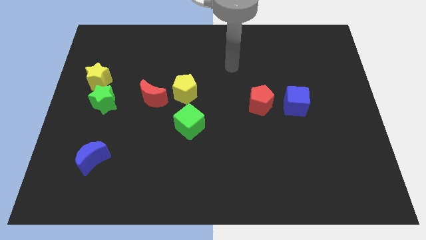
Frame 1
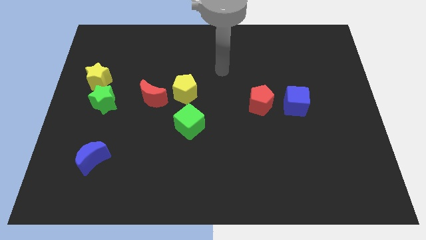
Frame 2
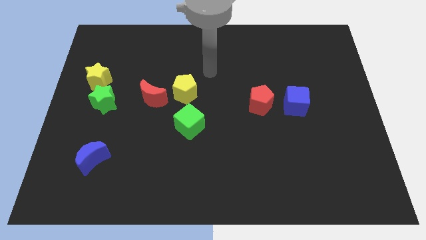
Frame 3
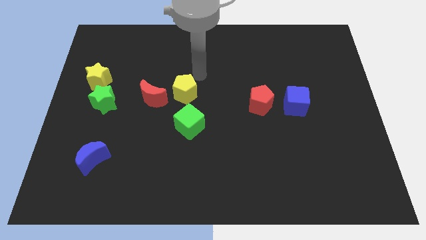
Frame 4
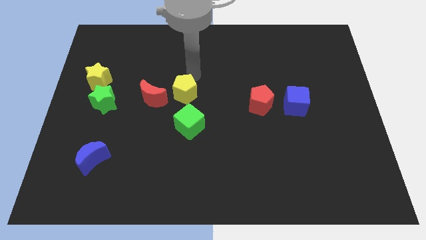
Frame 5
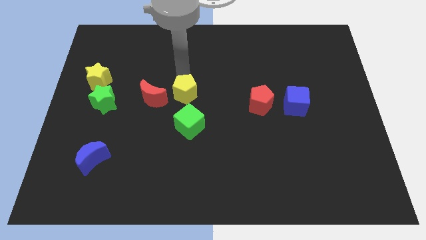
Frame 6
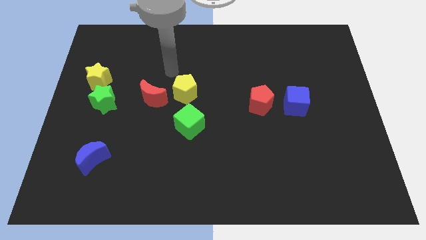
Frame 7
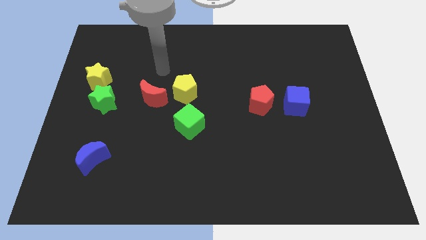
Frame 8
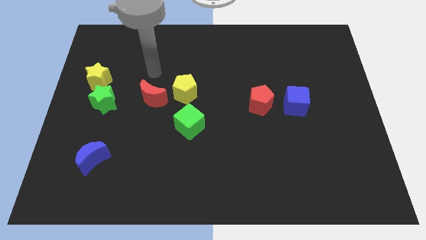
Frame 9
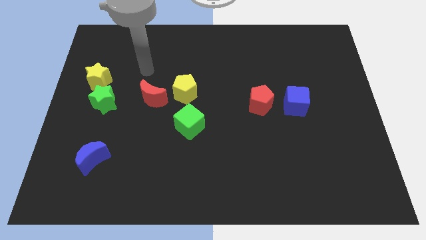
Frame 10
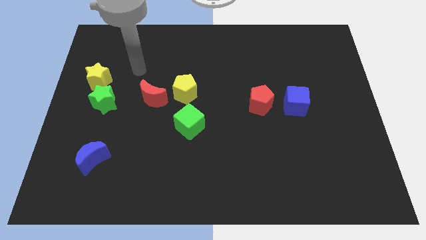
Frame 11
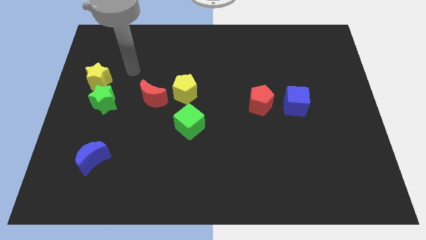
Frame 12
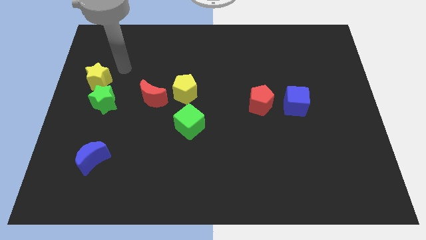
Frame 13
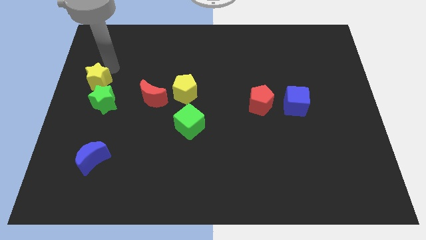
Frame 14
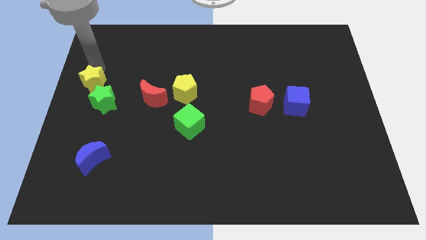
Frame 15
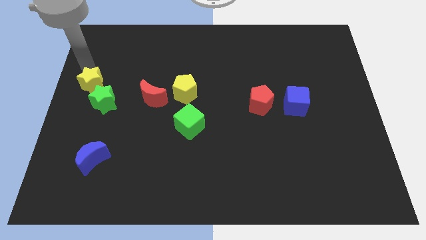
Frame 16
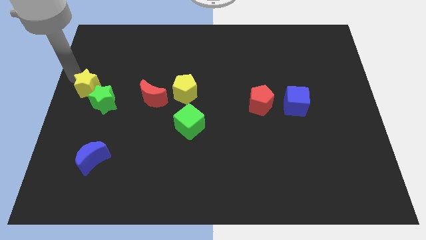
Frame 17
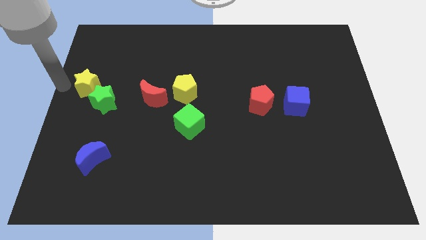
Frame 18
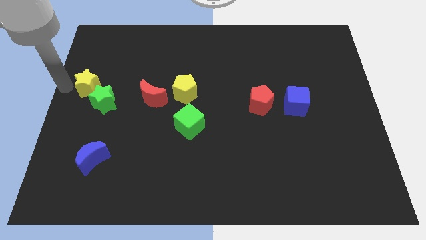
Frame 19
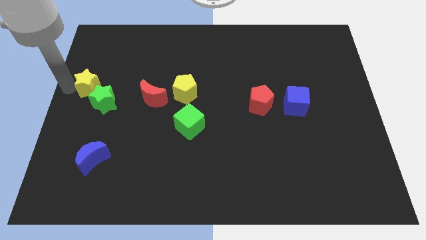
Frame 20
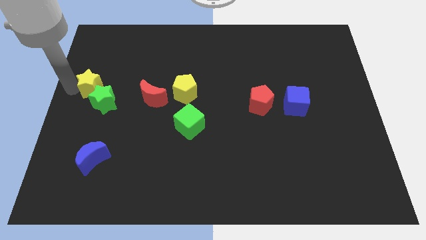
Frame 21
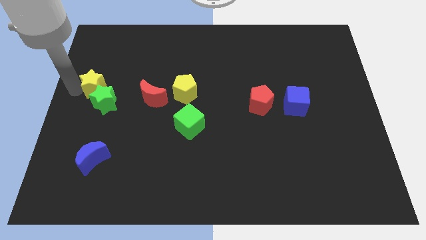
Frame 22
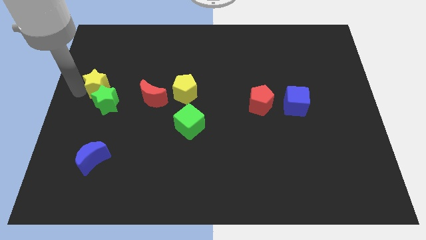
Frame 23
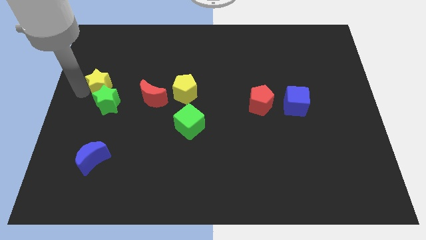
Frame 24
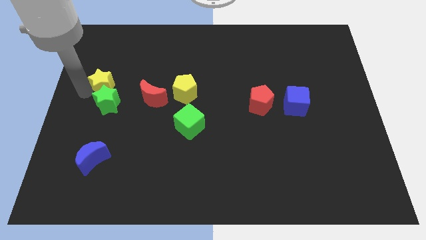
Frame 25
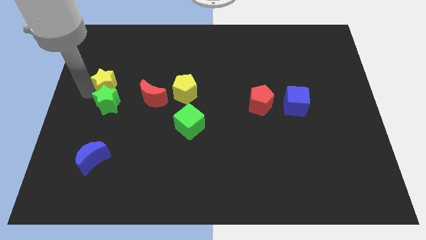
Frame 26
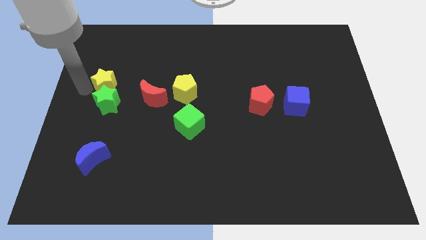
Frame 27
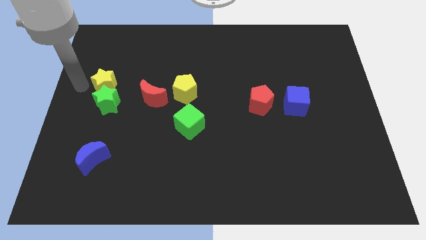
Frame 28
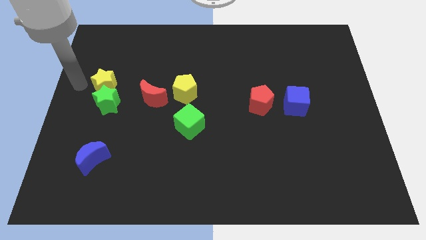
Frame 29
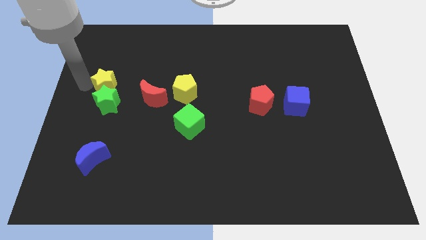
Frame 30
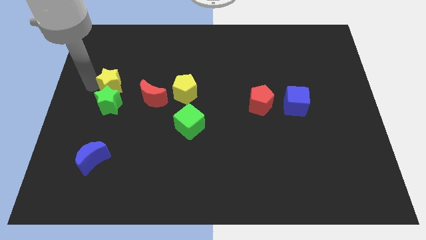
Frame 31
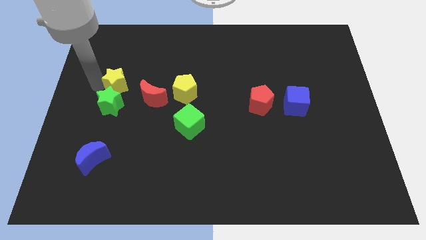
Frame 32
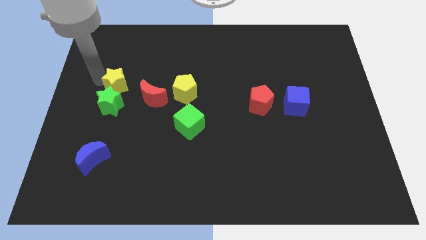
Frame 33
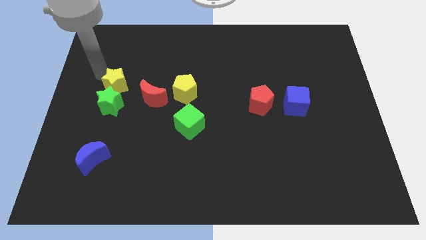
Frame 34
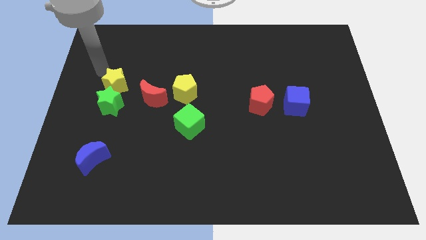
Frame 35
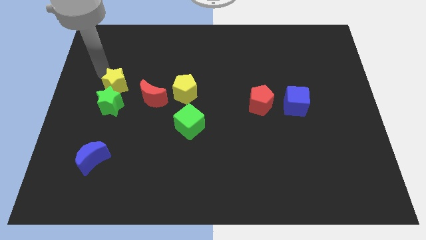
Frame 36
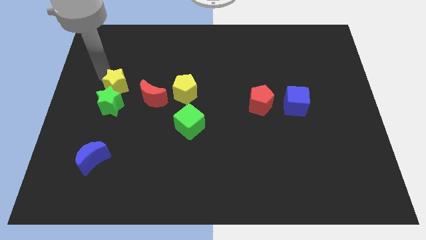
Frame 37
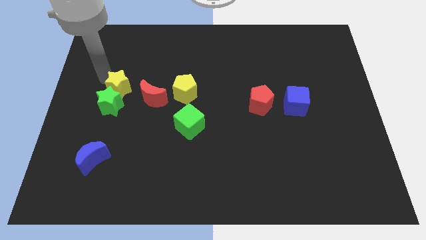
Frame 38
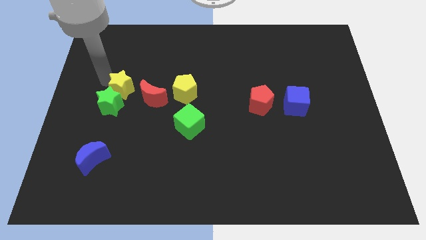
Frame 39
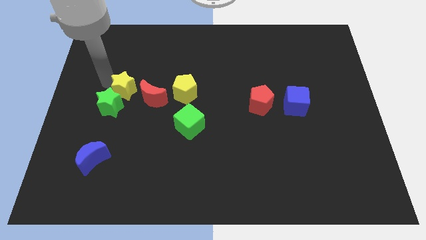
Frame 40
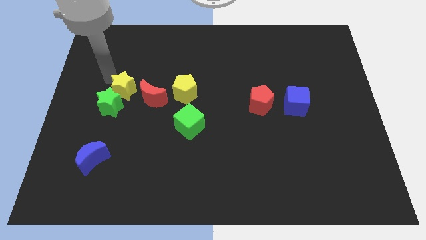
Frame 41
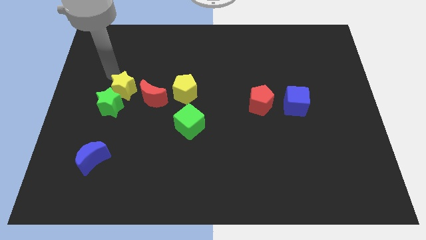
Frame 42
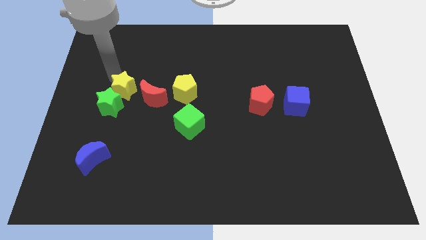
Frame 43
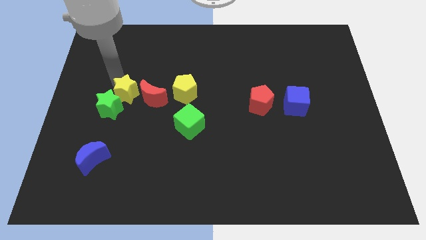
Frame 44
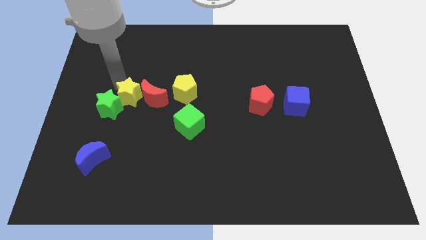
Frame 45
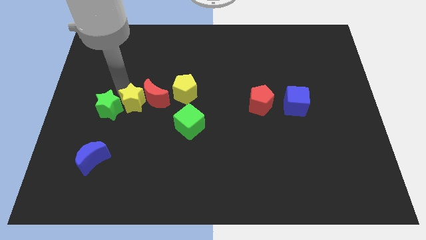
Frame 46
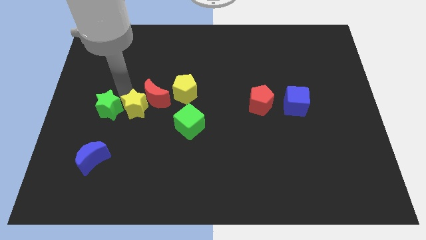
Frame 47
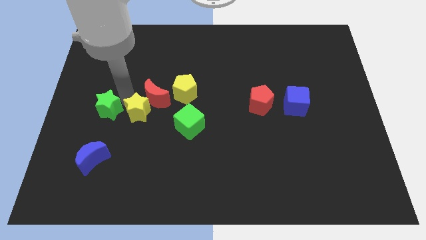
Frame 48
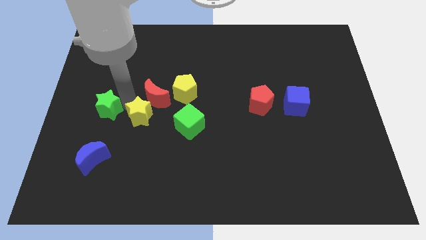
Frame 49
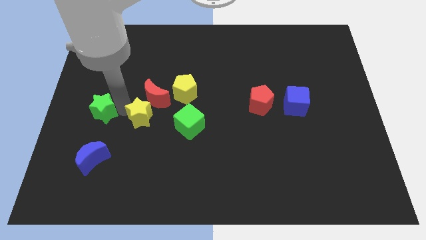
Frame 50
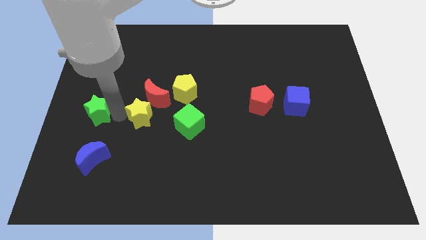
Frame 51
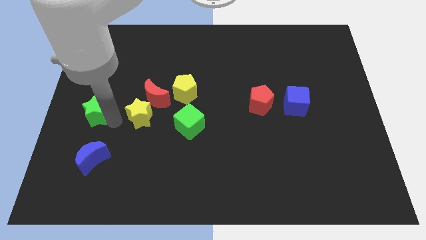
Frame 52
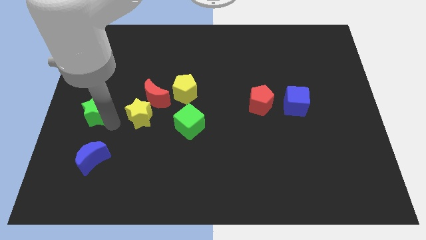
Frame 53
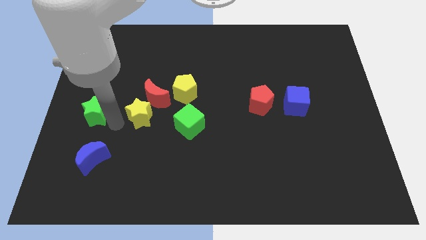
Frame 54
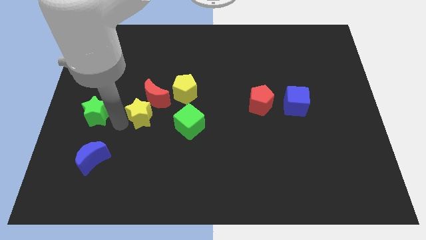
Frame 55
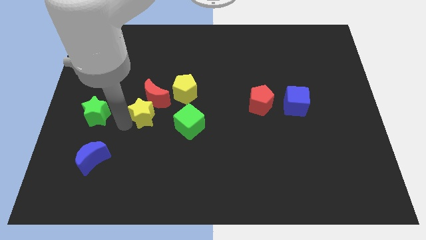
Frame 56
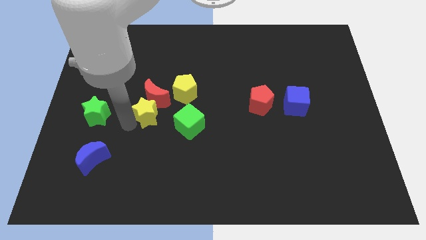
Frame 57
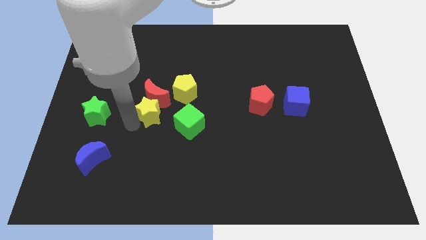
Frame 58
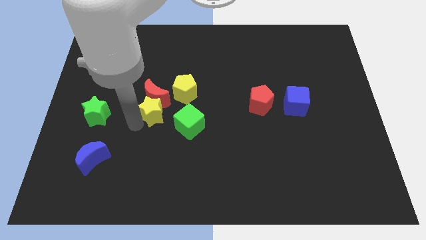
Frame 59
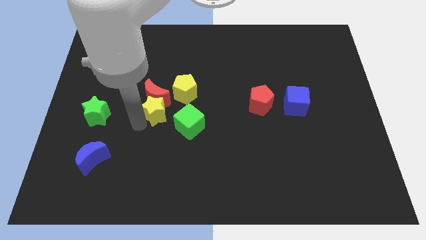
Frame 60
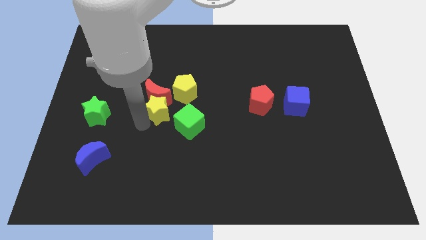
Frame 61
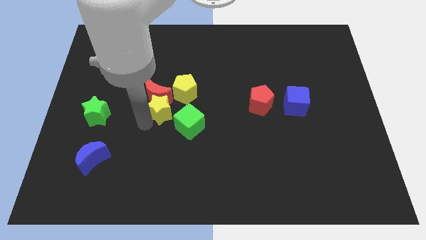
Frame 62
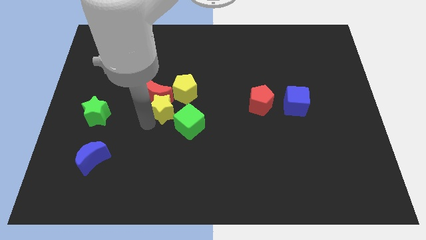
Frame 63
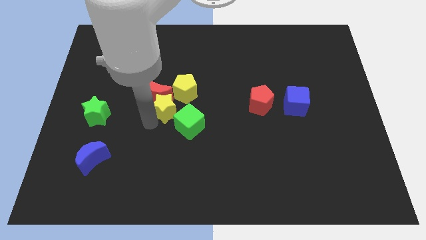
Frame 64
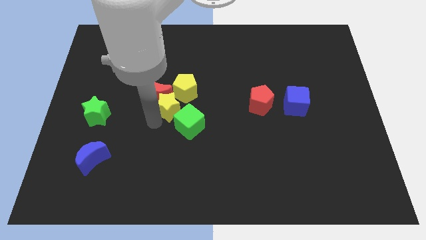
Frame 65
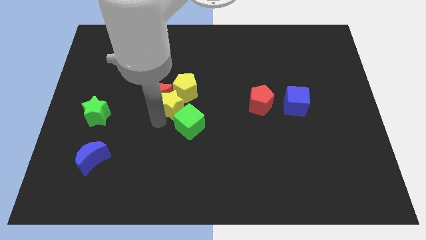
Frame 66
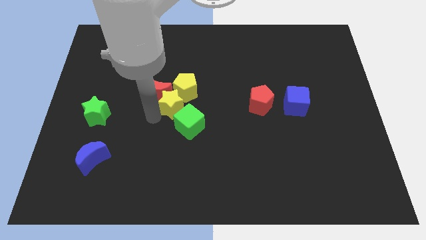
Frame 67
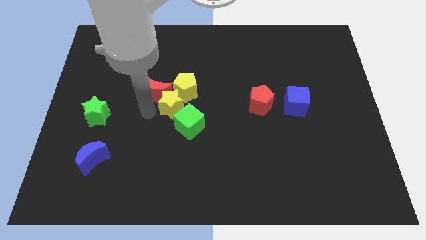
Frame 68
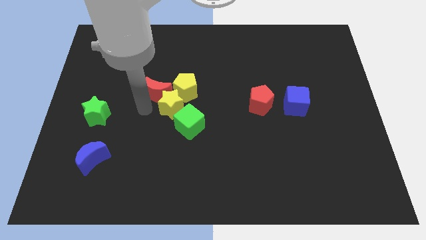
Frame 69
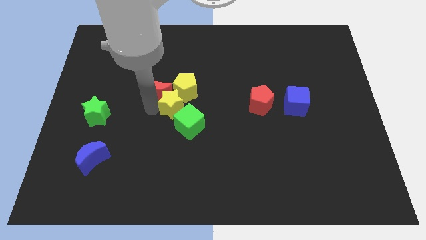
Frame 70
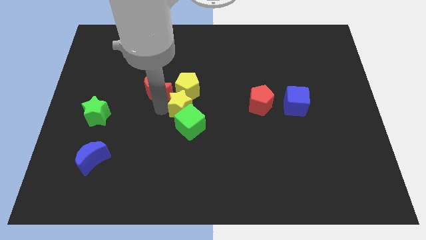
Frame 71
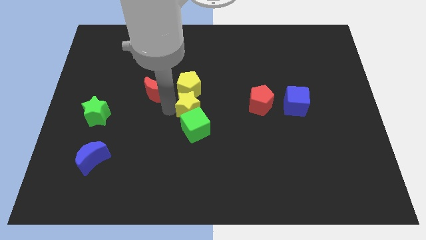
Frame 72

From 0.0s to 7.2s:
slide the yellow star to the bottom right side of the yellow pentagon

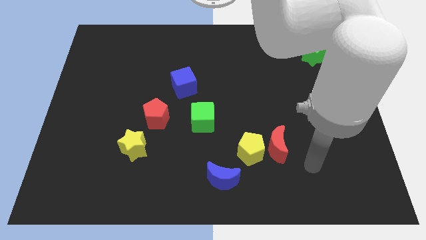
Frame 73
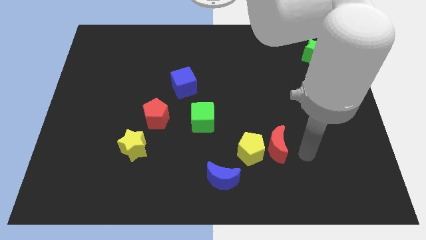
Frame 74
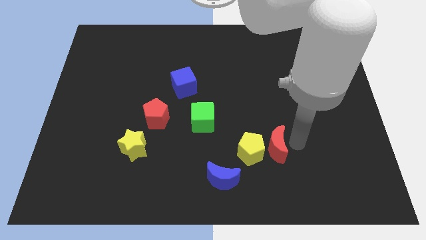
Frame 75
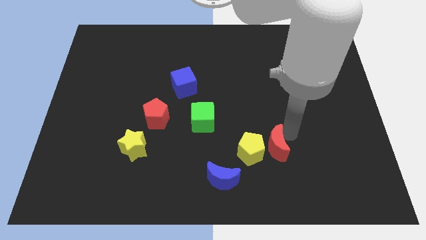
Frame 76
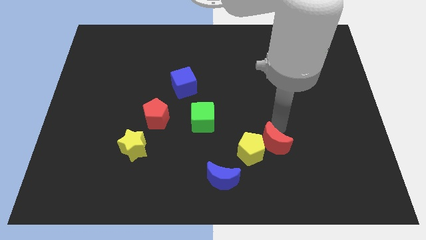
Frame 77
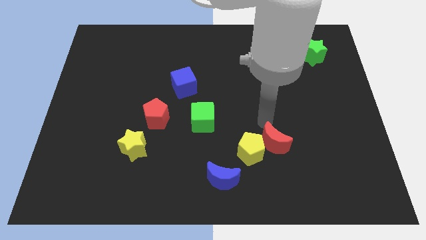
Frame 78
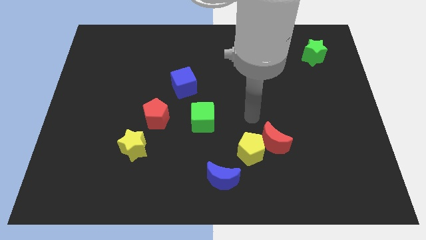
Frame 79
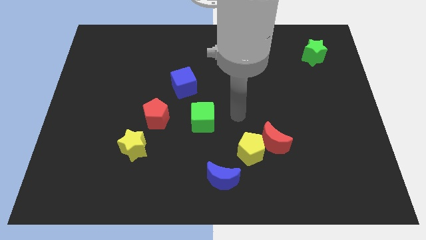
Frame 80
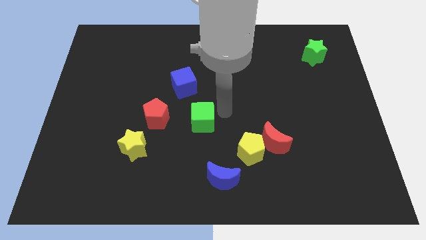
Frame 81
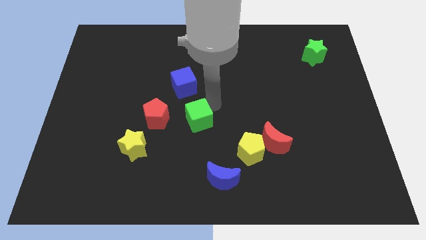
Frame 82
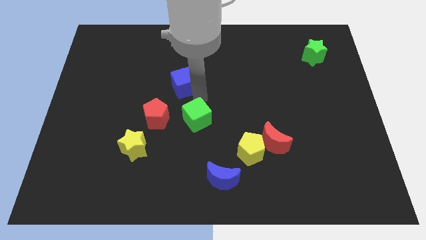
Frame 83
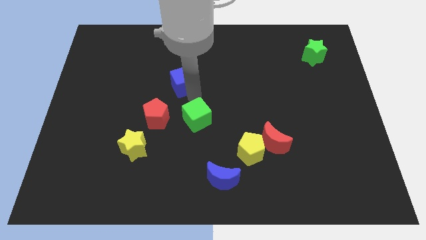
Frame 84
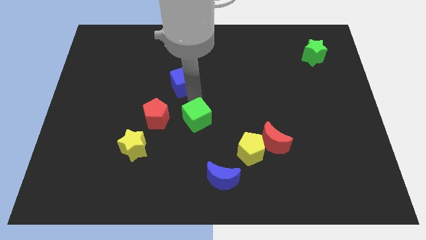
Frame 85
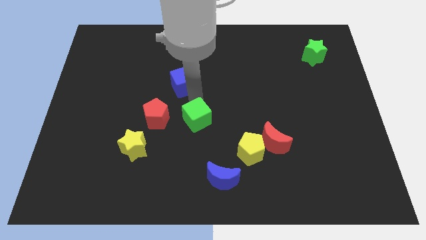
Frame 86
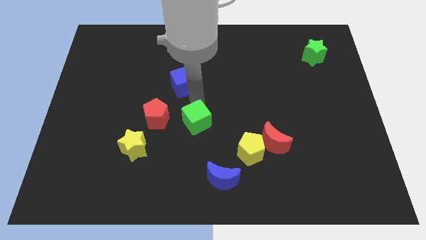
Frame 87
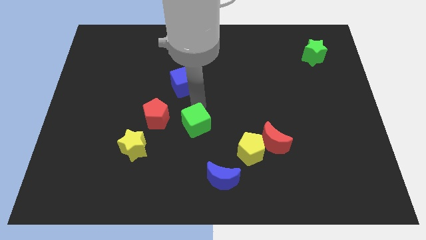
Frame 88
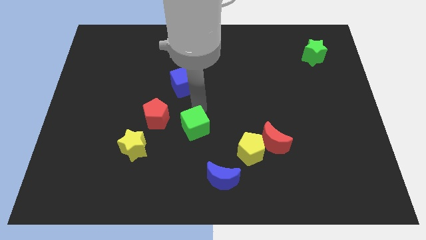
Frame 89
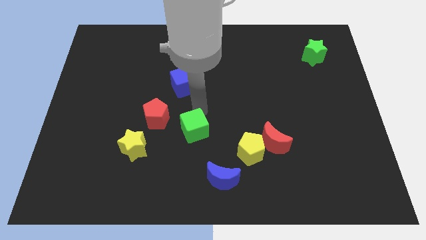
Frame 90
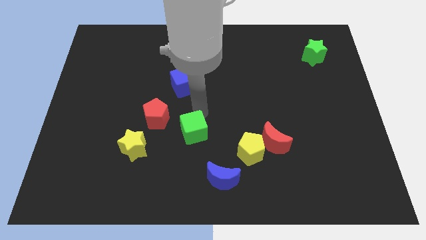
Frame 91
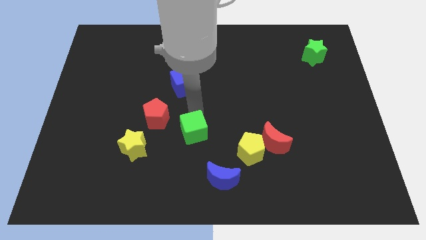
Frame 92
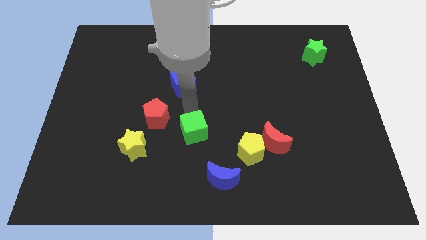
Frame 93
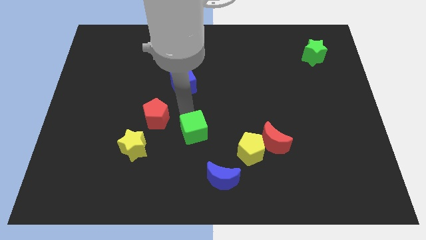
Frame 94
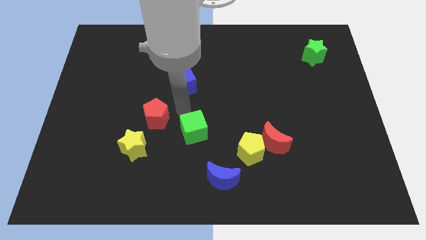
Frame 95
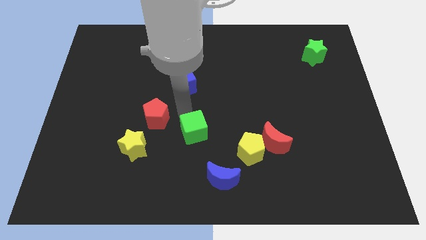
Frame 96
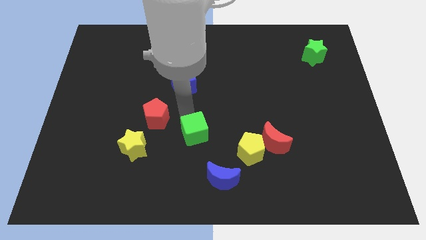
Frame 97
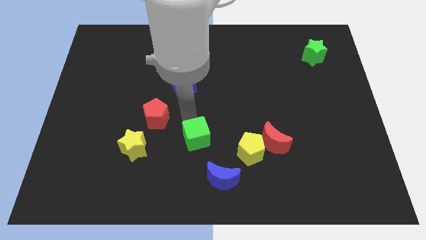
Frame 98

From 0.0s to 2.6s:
push the green cube to the top left side of the blue moon
